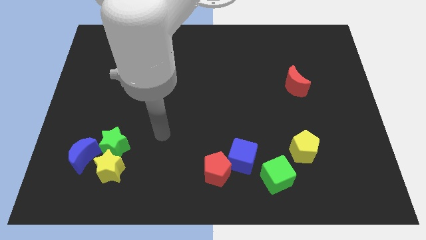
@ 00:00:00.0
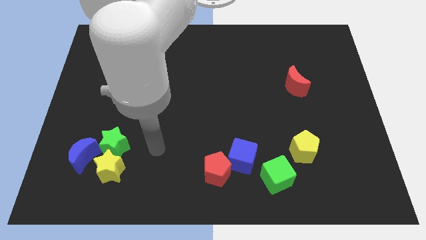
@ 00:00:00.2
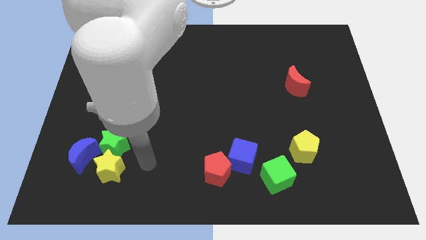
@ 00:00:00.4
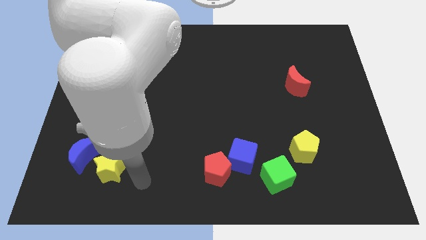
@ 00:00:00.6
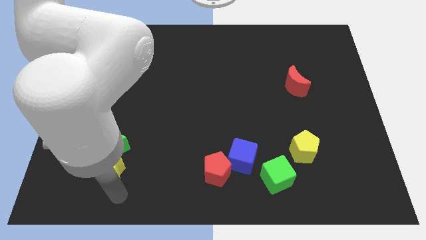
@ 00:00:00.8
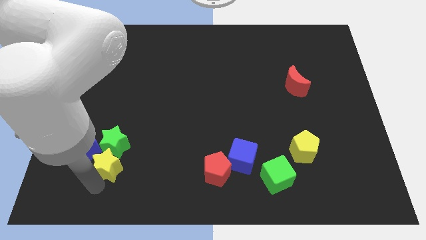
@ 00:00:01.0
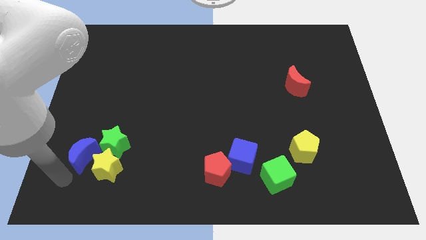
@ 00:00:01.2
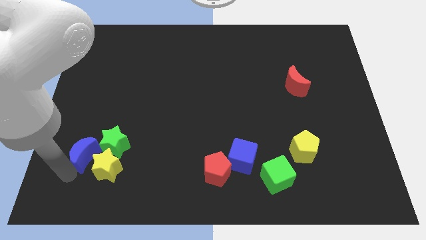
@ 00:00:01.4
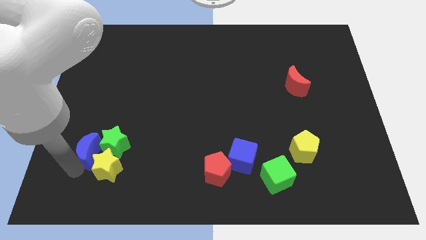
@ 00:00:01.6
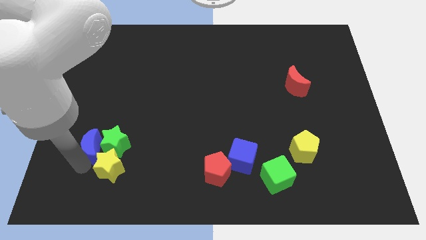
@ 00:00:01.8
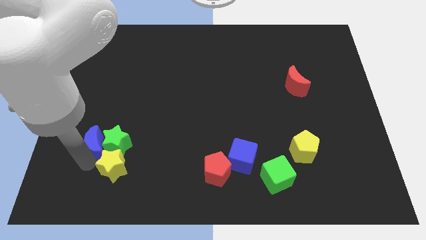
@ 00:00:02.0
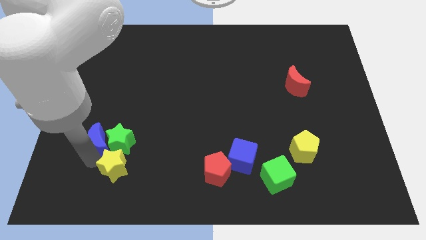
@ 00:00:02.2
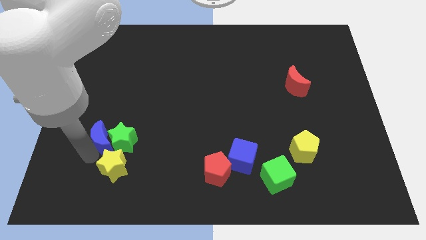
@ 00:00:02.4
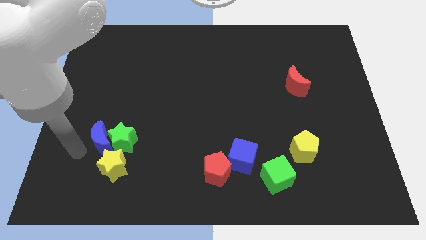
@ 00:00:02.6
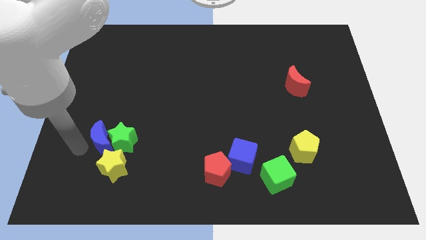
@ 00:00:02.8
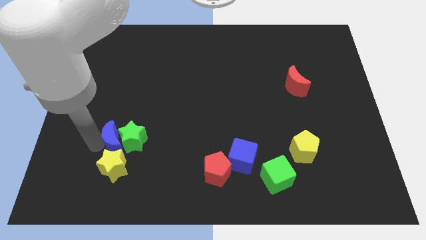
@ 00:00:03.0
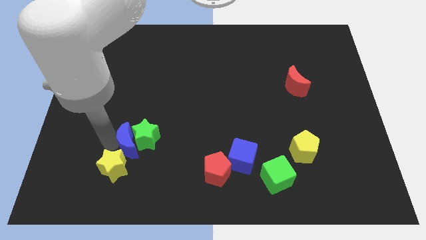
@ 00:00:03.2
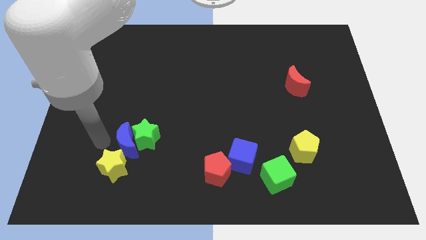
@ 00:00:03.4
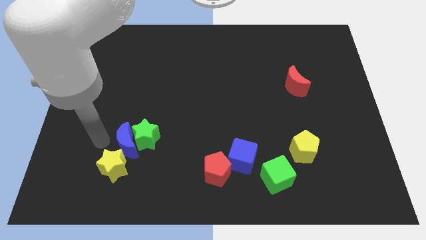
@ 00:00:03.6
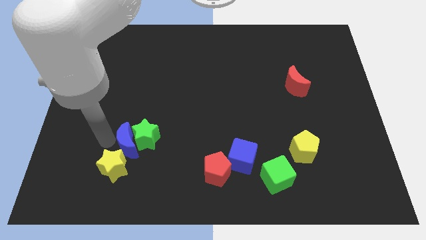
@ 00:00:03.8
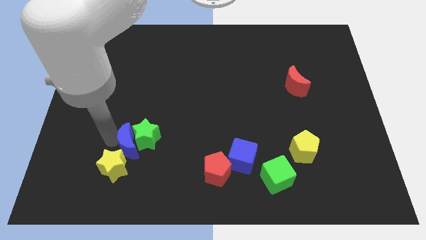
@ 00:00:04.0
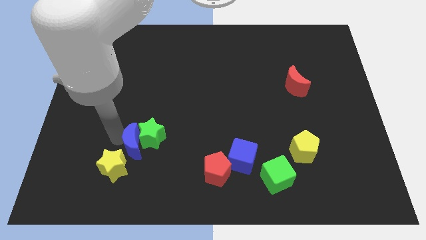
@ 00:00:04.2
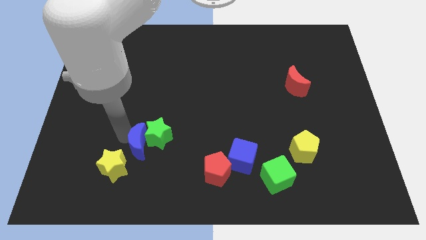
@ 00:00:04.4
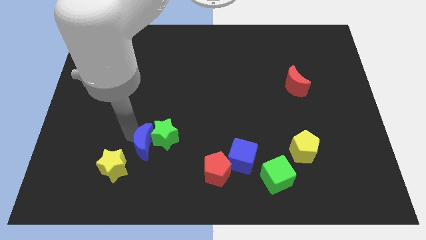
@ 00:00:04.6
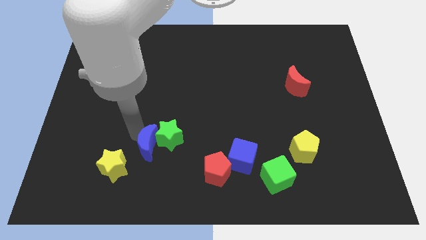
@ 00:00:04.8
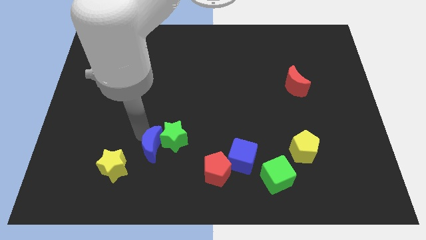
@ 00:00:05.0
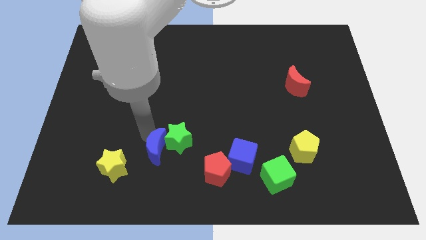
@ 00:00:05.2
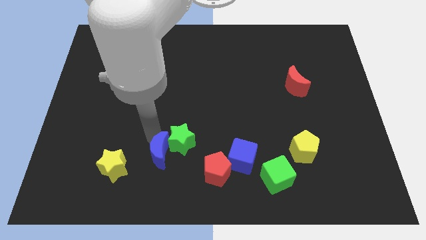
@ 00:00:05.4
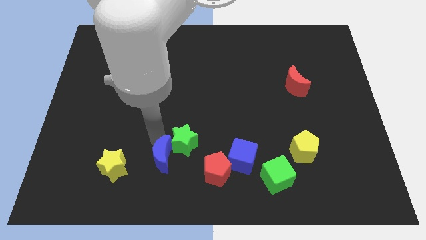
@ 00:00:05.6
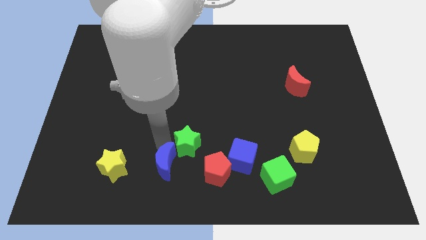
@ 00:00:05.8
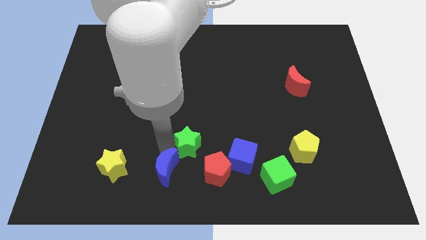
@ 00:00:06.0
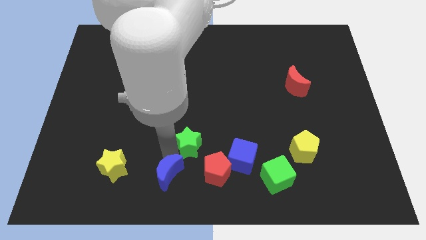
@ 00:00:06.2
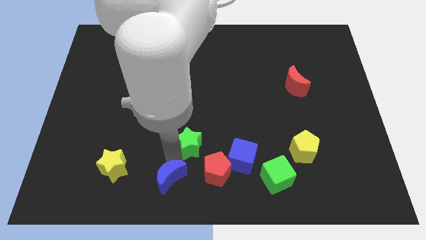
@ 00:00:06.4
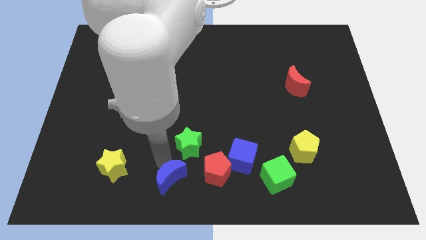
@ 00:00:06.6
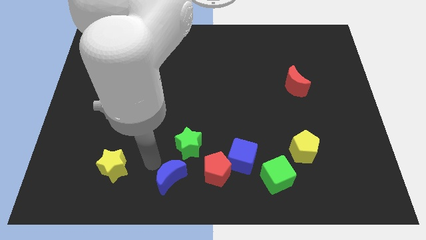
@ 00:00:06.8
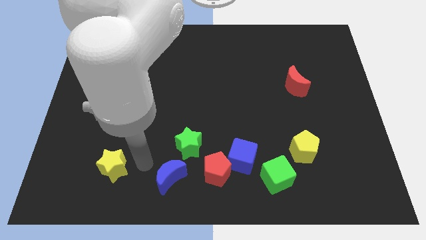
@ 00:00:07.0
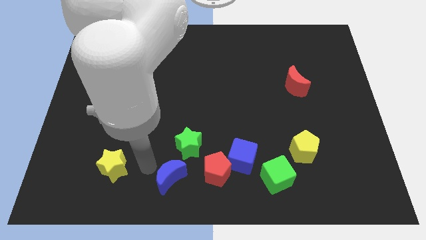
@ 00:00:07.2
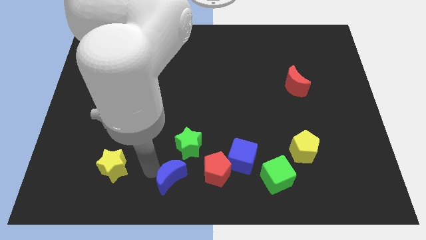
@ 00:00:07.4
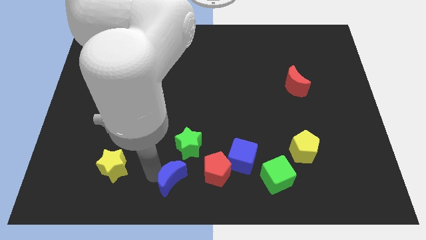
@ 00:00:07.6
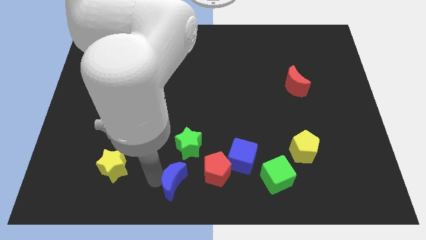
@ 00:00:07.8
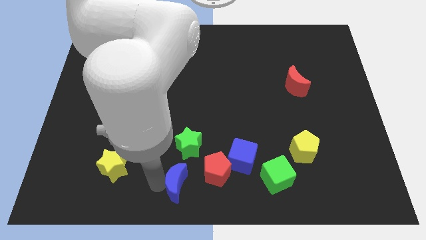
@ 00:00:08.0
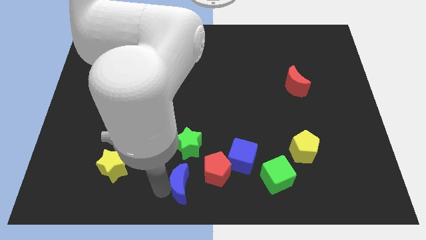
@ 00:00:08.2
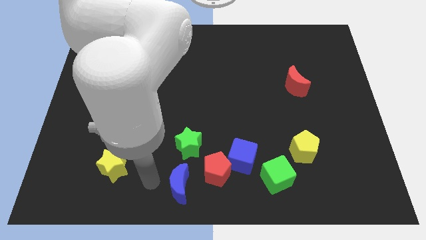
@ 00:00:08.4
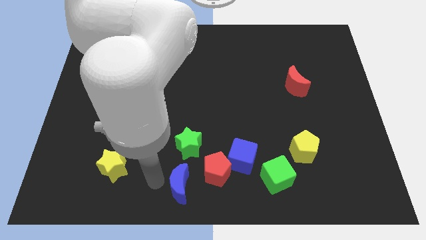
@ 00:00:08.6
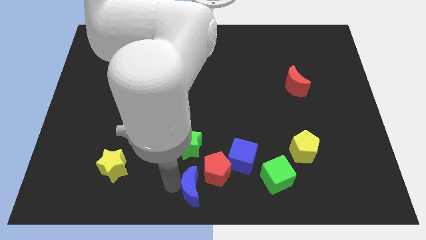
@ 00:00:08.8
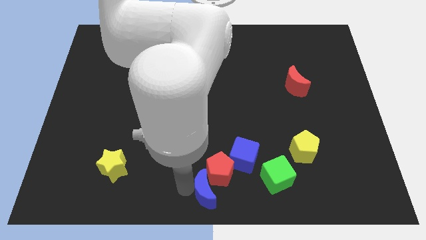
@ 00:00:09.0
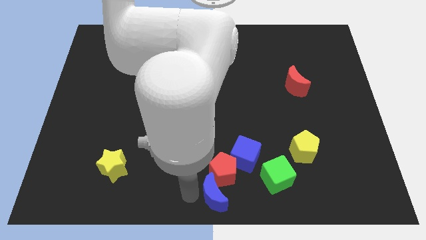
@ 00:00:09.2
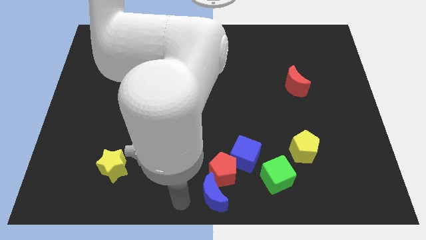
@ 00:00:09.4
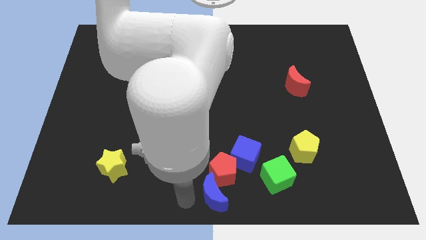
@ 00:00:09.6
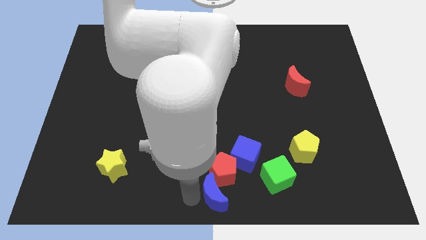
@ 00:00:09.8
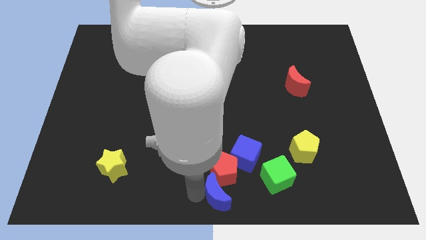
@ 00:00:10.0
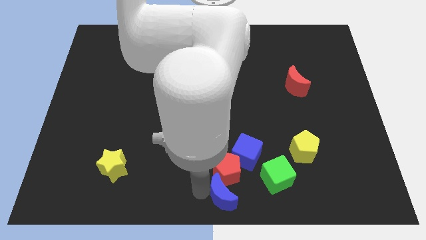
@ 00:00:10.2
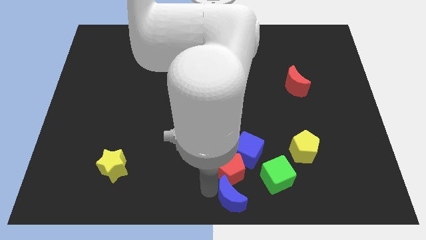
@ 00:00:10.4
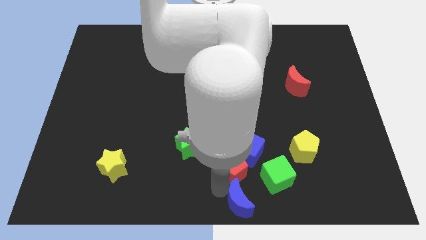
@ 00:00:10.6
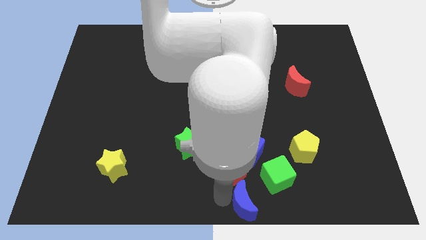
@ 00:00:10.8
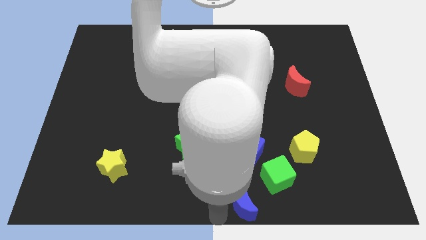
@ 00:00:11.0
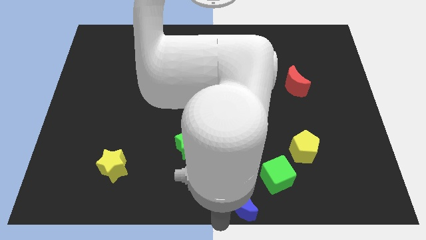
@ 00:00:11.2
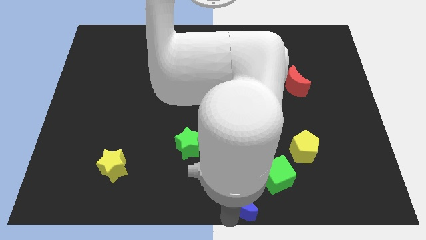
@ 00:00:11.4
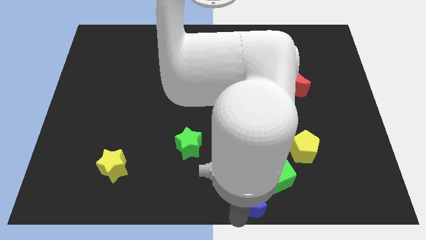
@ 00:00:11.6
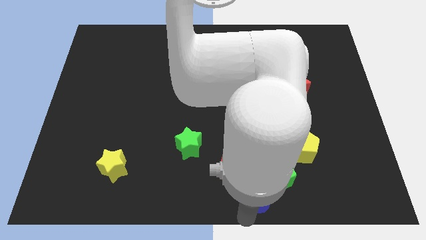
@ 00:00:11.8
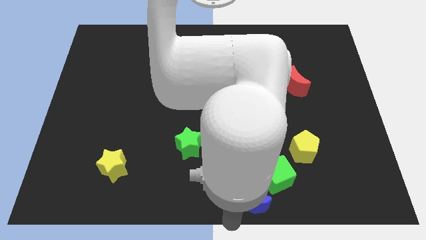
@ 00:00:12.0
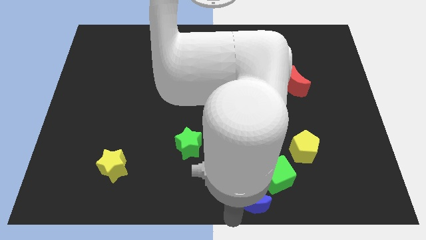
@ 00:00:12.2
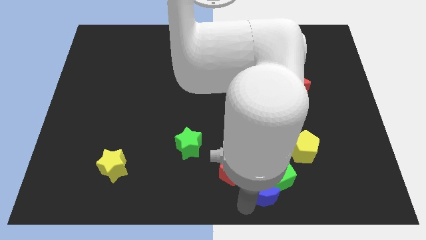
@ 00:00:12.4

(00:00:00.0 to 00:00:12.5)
slide the blue moon to the green cube

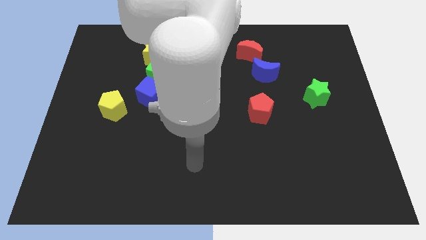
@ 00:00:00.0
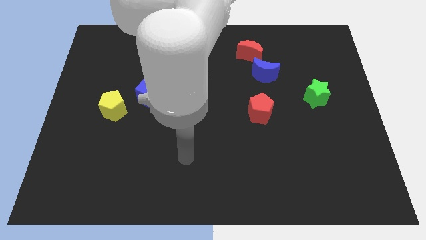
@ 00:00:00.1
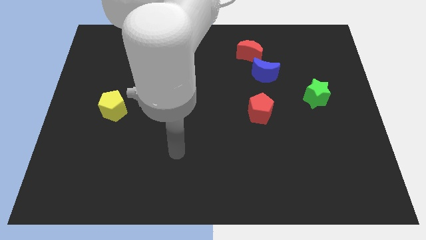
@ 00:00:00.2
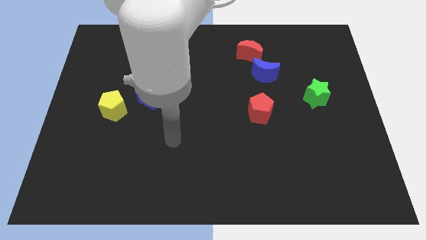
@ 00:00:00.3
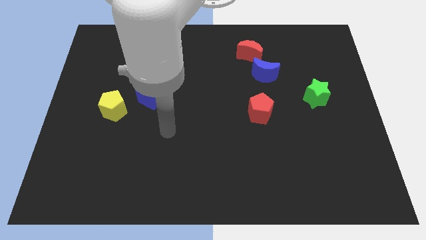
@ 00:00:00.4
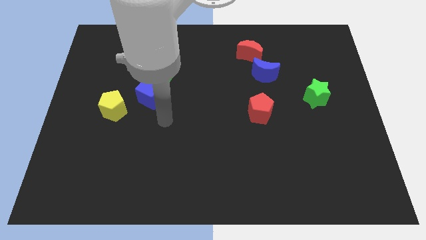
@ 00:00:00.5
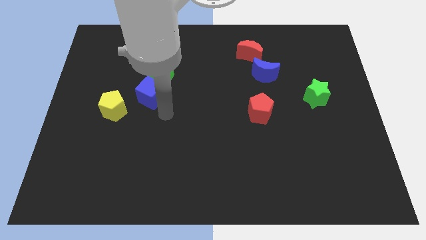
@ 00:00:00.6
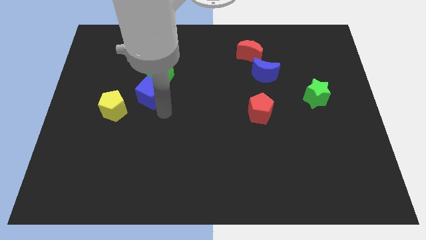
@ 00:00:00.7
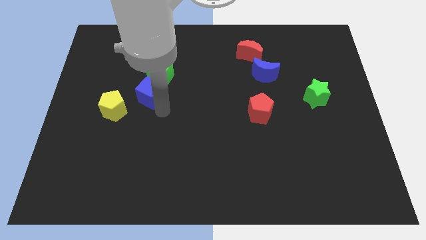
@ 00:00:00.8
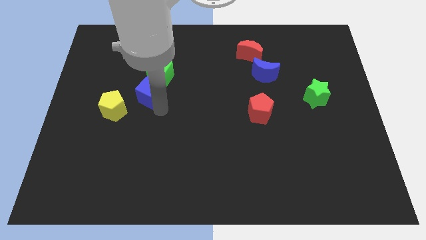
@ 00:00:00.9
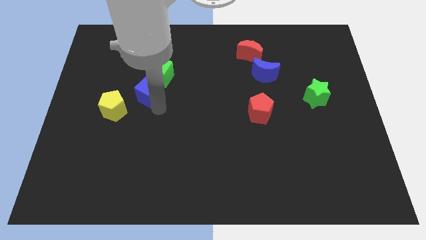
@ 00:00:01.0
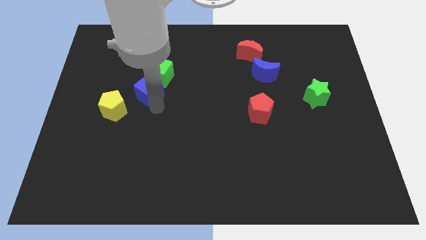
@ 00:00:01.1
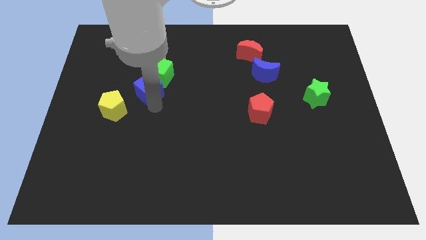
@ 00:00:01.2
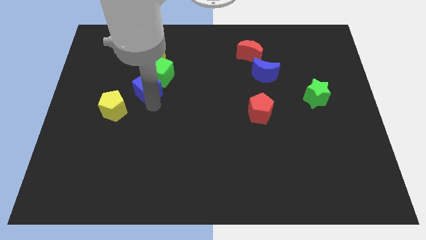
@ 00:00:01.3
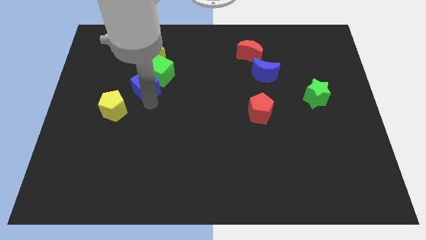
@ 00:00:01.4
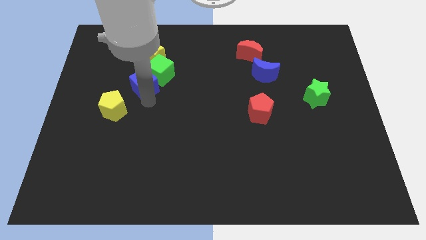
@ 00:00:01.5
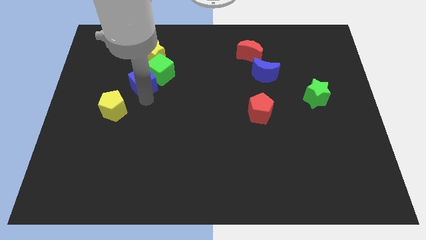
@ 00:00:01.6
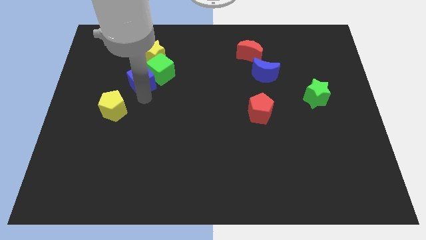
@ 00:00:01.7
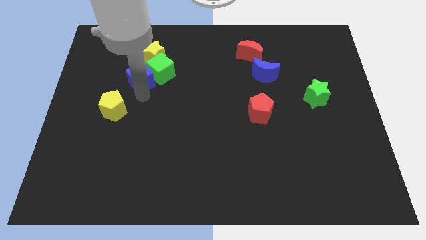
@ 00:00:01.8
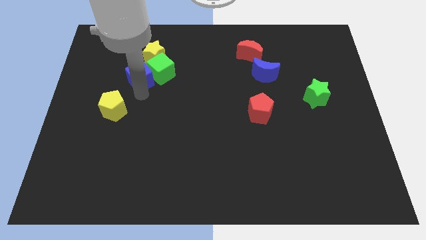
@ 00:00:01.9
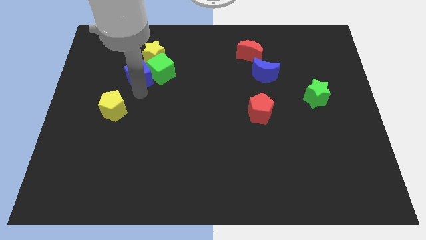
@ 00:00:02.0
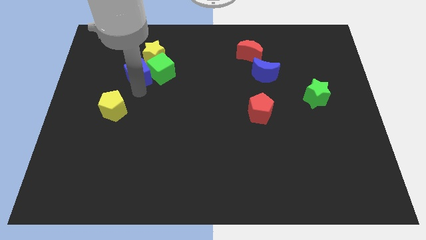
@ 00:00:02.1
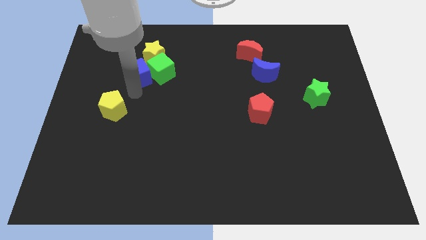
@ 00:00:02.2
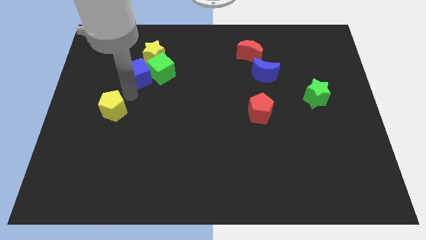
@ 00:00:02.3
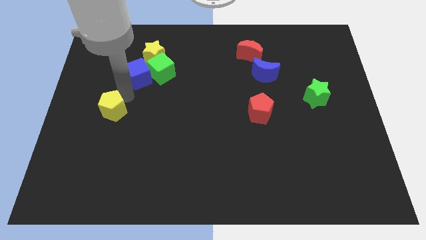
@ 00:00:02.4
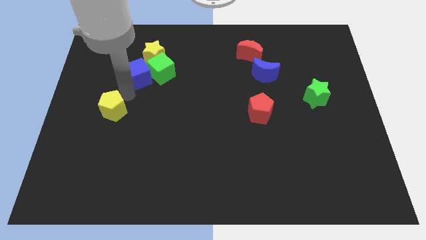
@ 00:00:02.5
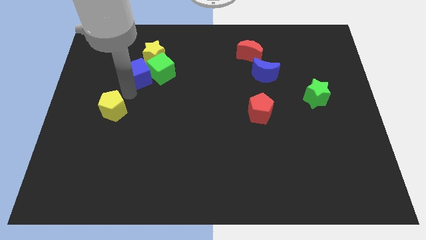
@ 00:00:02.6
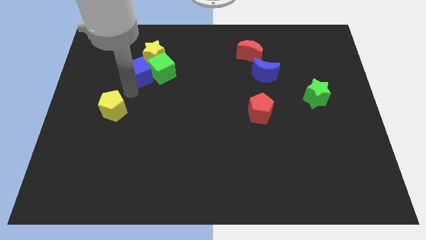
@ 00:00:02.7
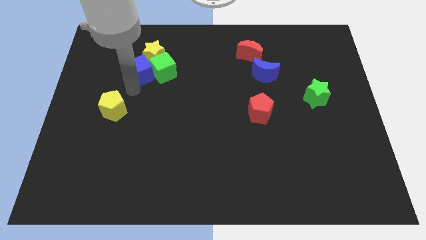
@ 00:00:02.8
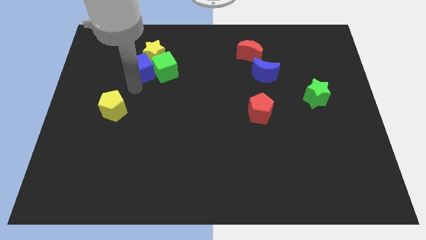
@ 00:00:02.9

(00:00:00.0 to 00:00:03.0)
move the blue cube next to the yellow star
